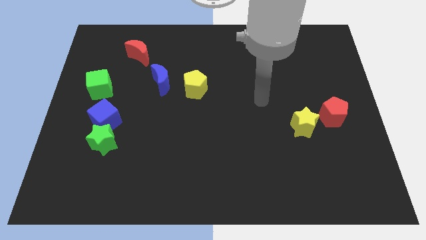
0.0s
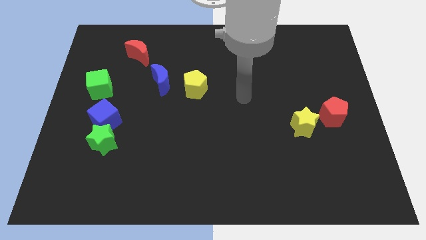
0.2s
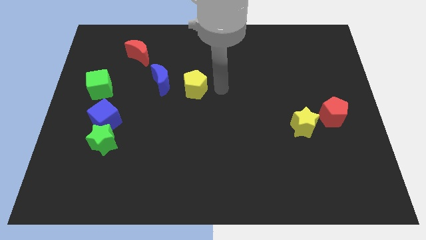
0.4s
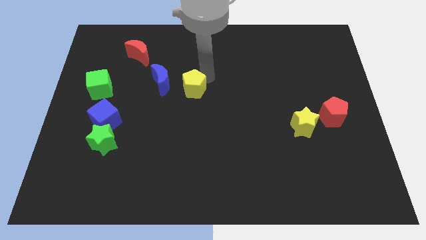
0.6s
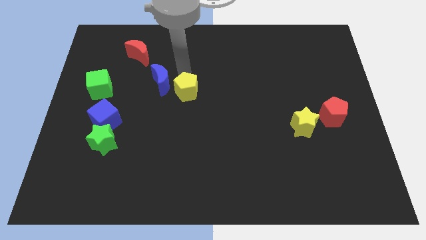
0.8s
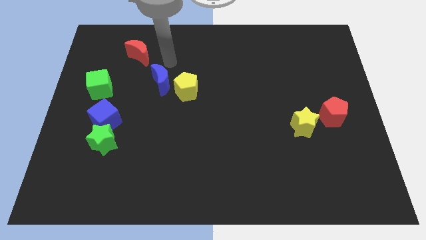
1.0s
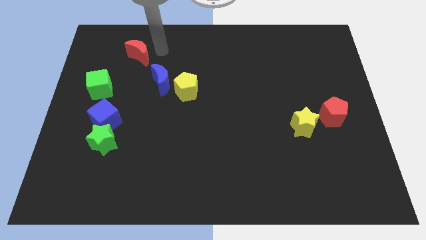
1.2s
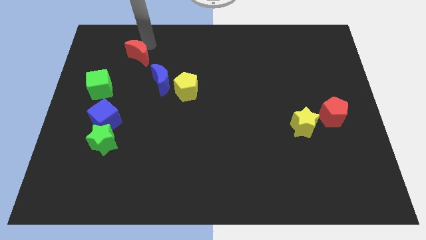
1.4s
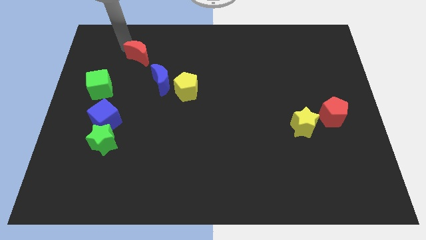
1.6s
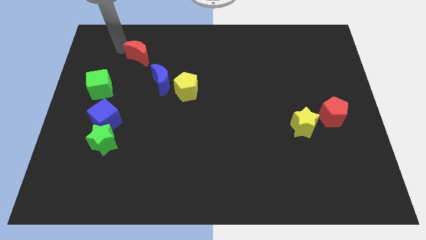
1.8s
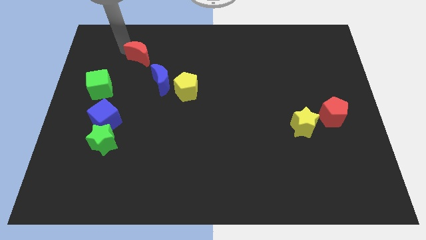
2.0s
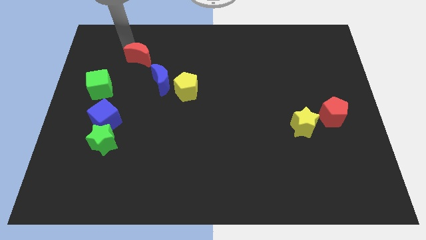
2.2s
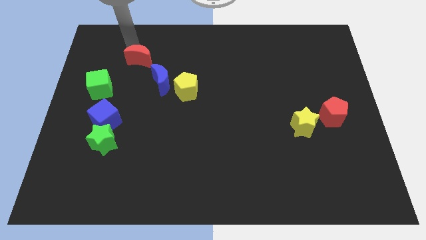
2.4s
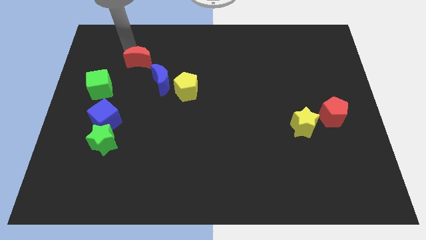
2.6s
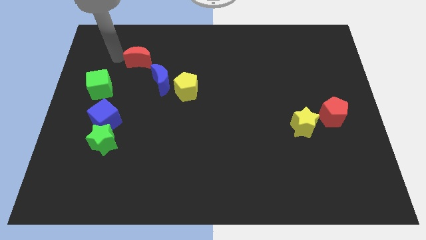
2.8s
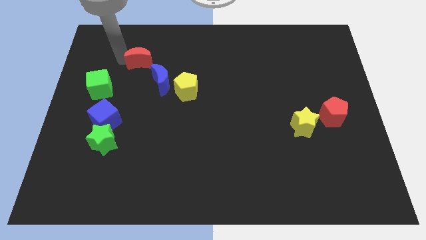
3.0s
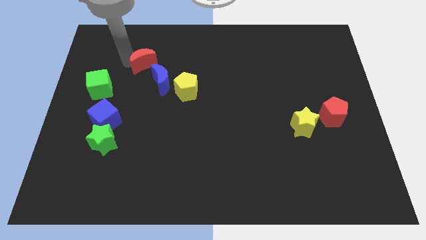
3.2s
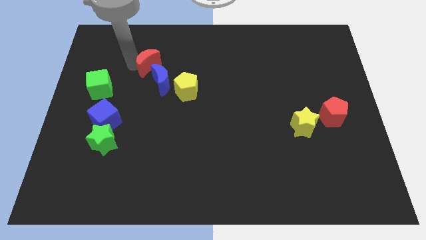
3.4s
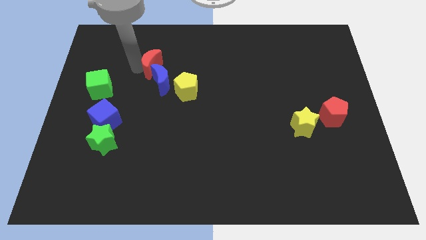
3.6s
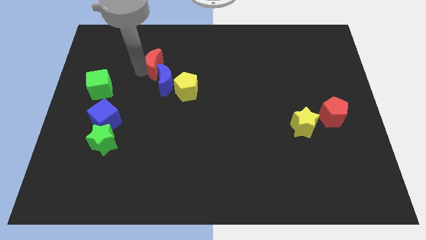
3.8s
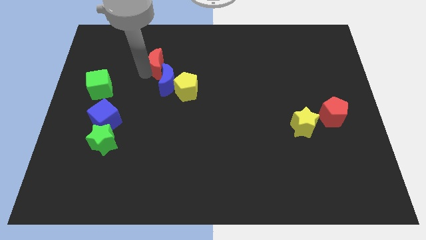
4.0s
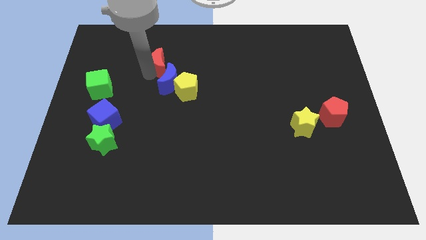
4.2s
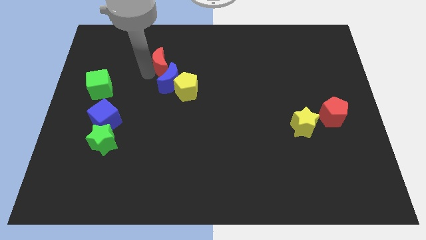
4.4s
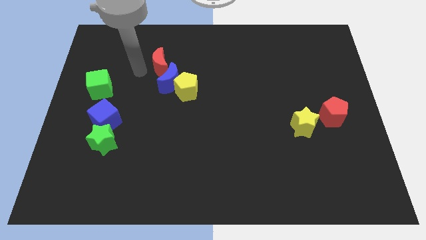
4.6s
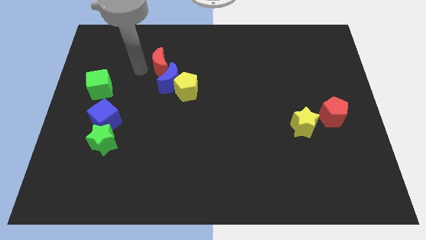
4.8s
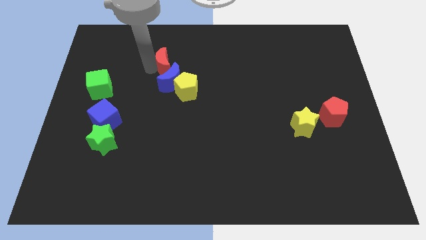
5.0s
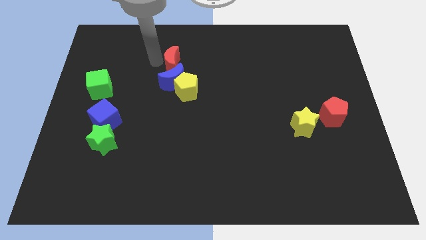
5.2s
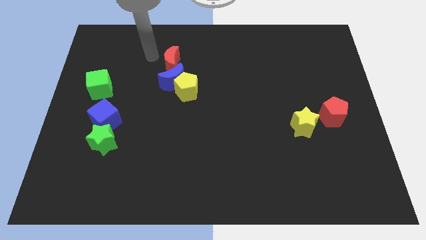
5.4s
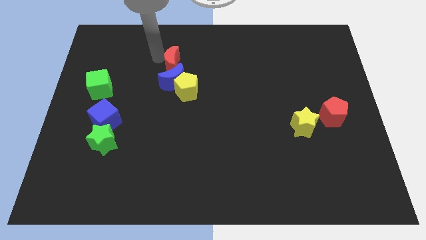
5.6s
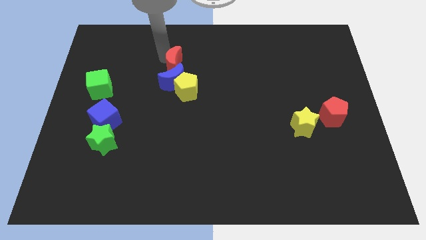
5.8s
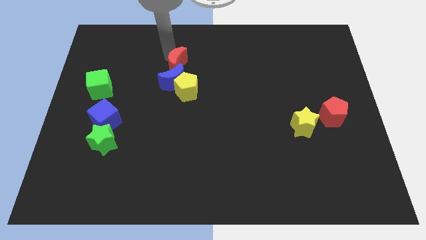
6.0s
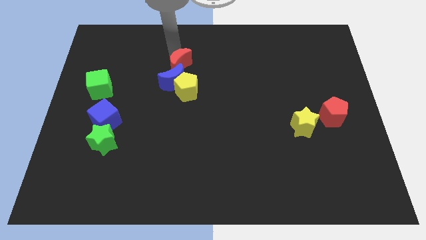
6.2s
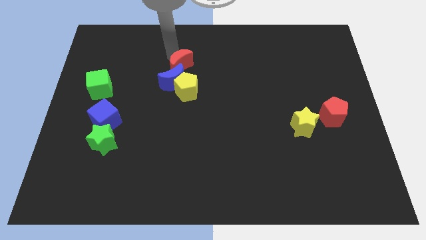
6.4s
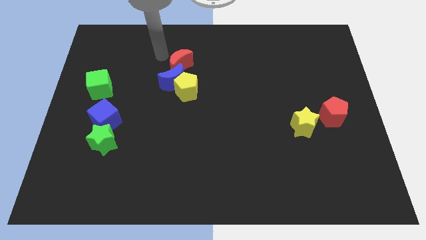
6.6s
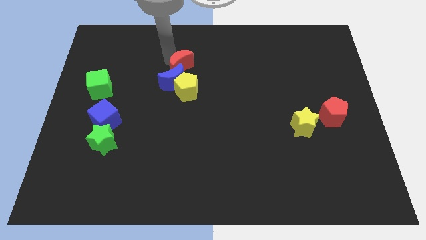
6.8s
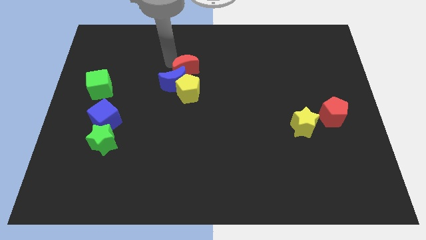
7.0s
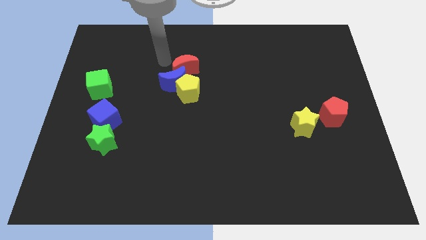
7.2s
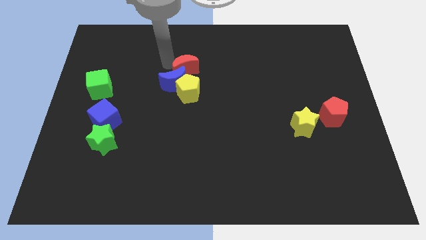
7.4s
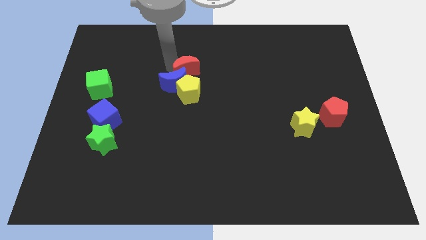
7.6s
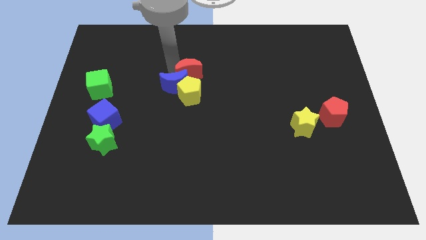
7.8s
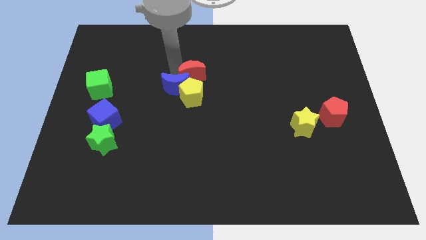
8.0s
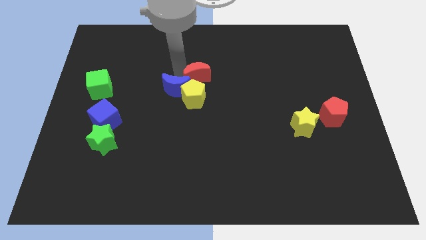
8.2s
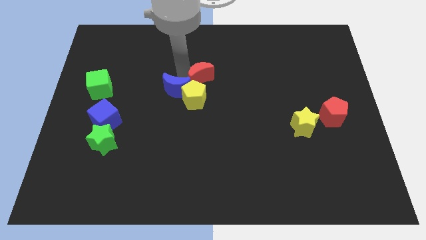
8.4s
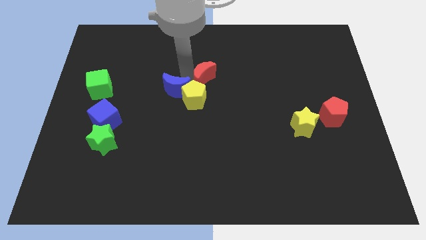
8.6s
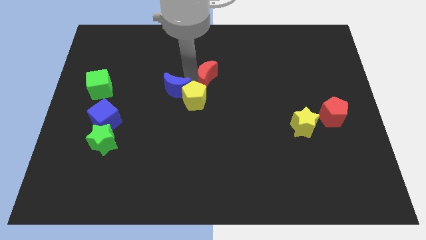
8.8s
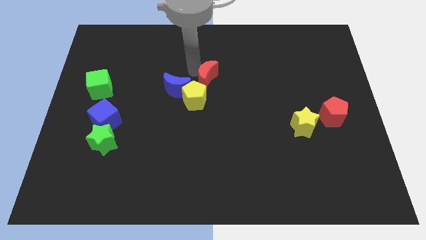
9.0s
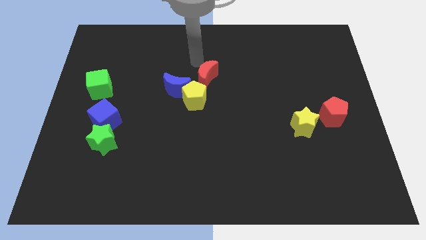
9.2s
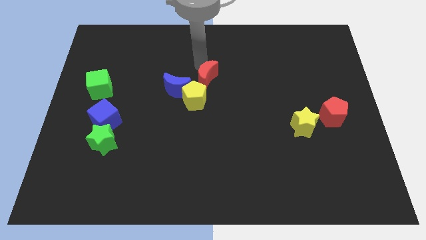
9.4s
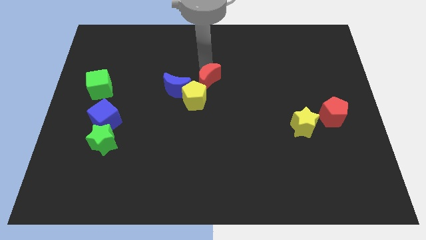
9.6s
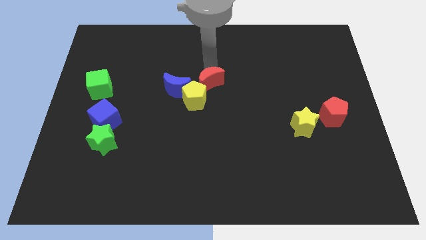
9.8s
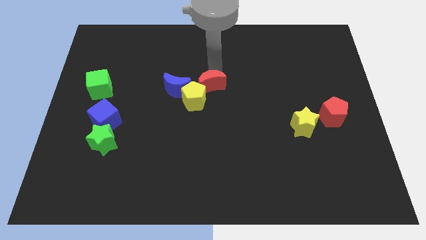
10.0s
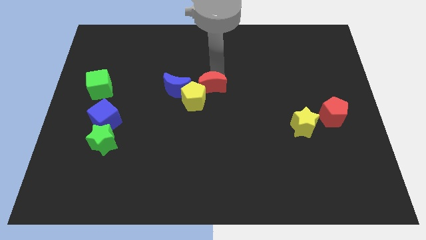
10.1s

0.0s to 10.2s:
move the red moon diagonally downwards and to the right

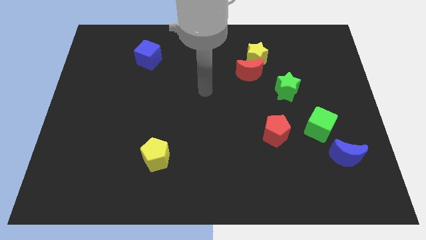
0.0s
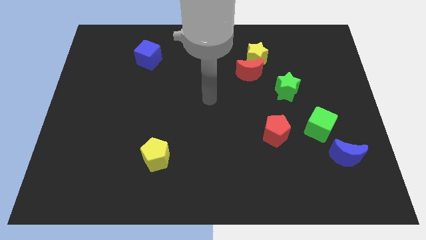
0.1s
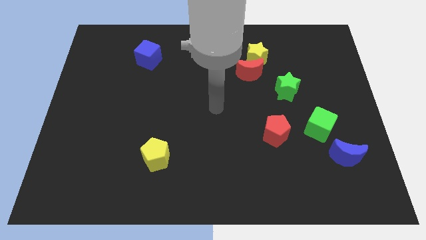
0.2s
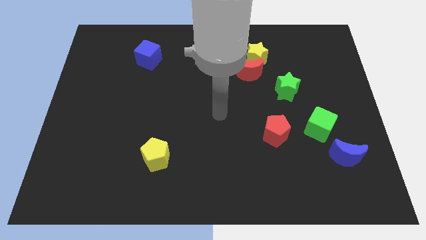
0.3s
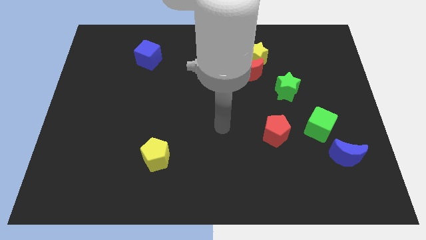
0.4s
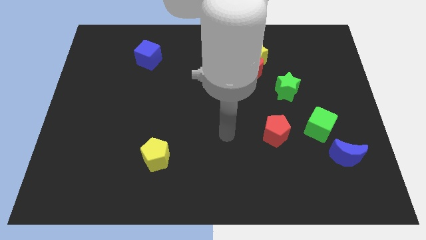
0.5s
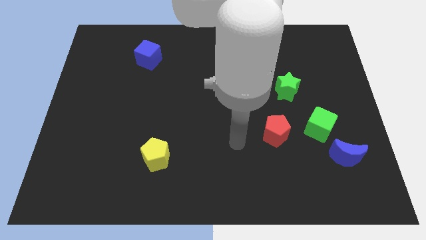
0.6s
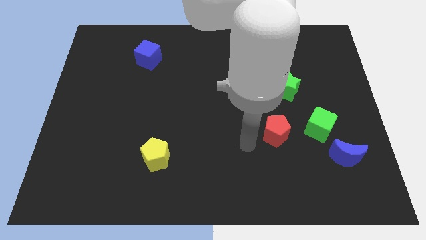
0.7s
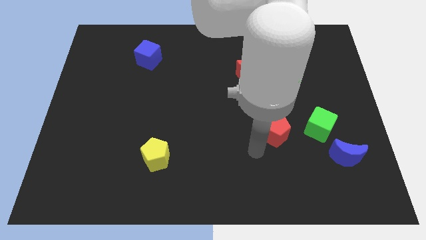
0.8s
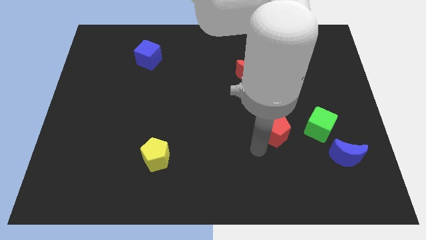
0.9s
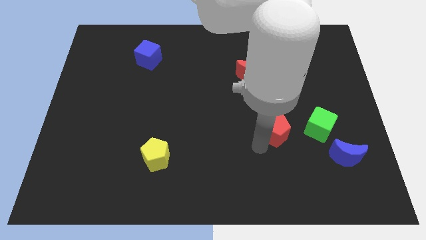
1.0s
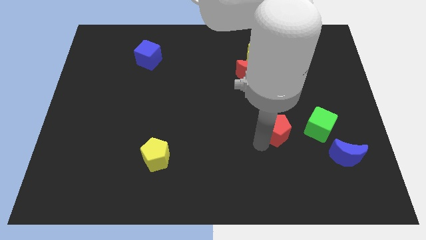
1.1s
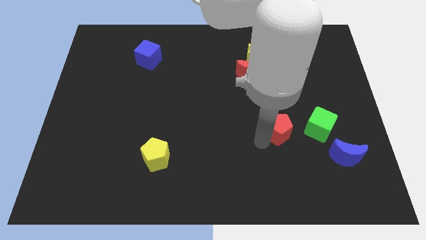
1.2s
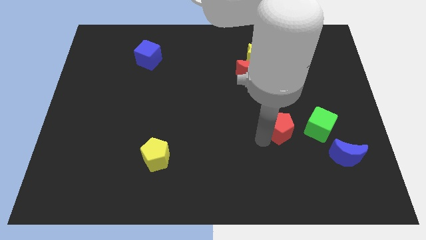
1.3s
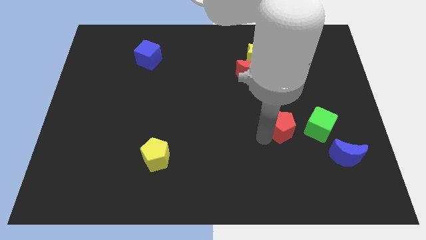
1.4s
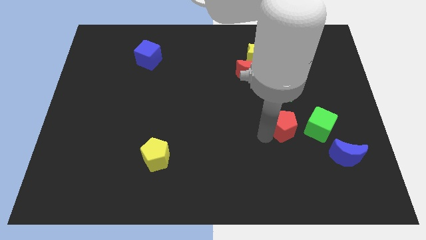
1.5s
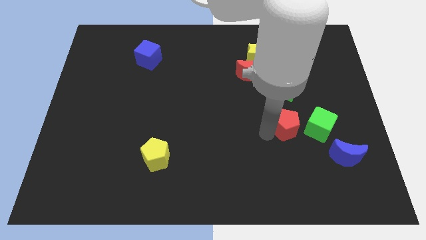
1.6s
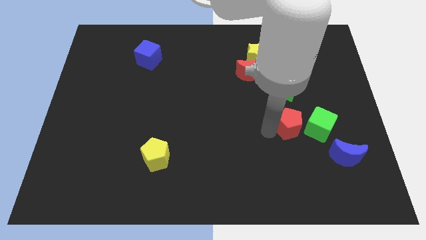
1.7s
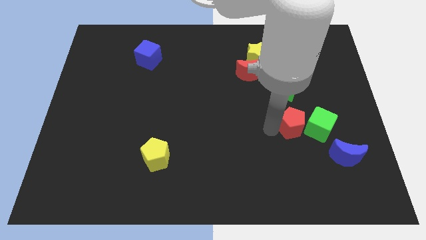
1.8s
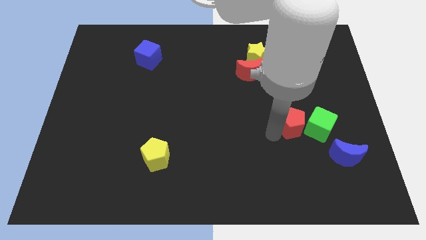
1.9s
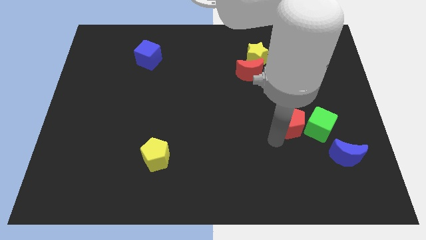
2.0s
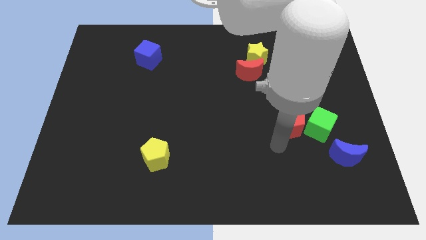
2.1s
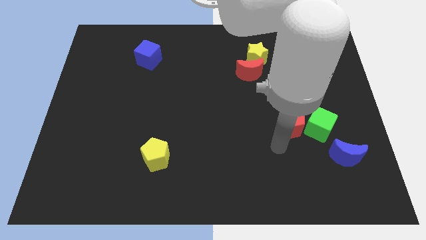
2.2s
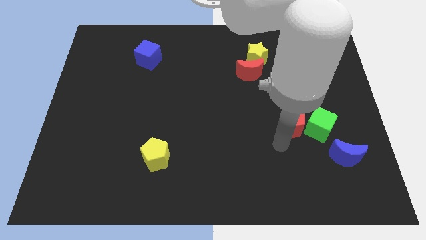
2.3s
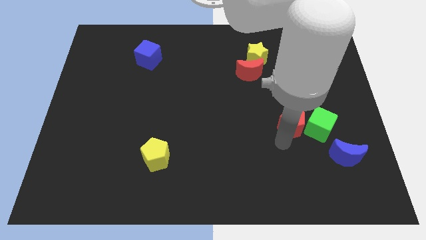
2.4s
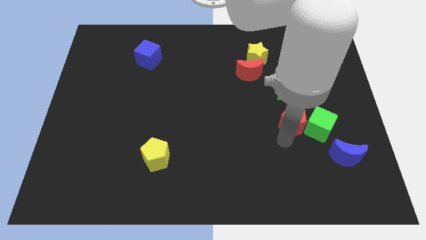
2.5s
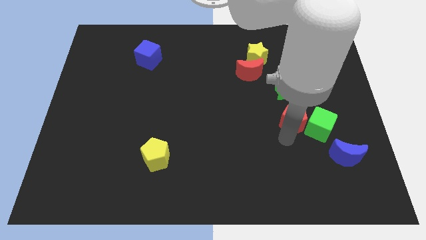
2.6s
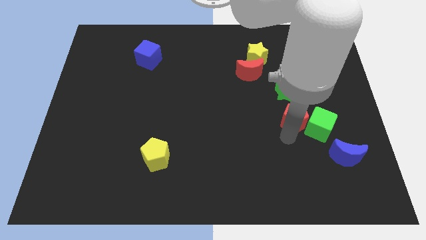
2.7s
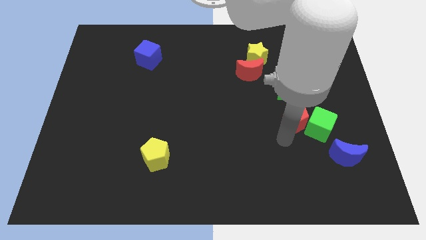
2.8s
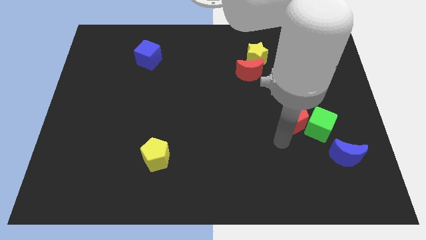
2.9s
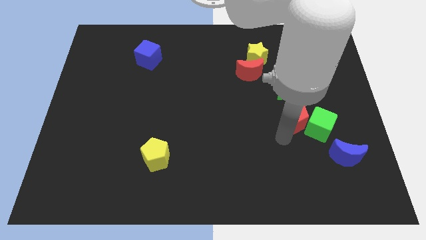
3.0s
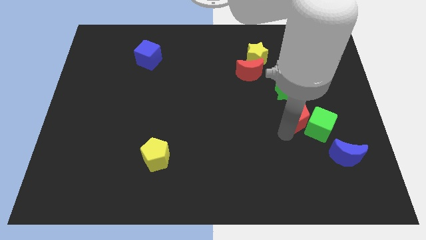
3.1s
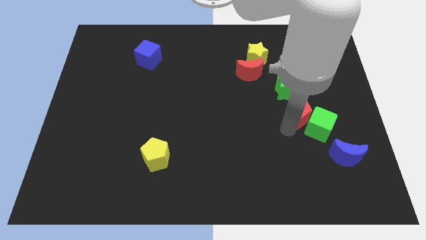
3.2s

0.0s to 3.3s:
move the red pentagon a little up and to the right diagonally
